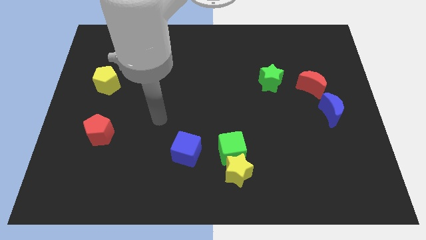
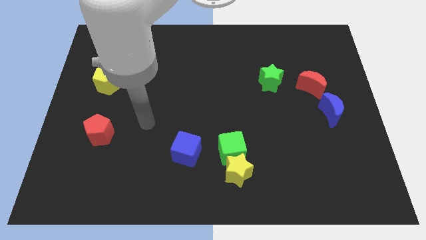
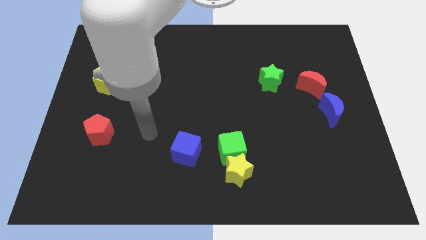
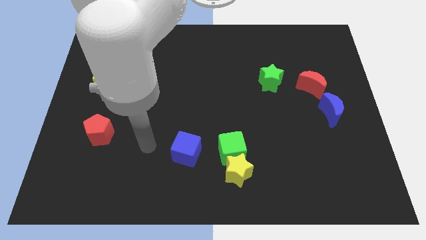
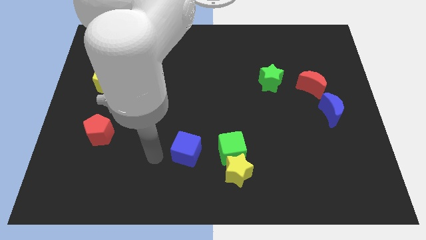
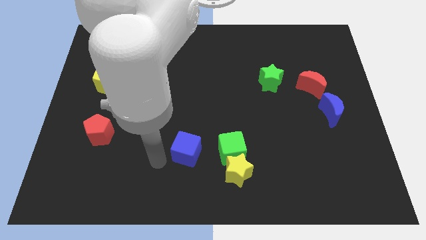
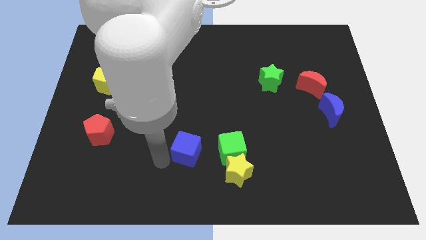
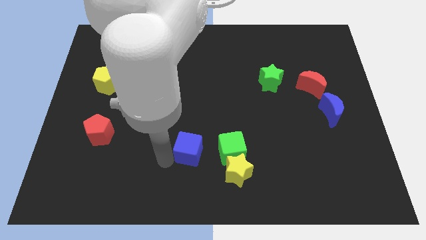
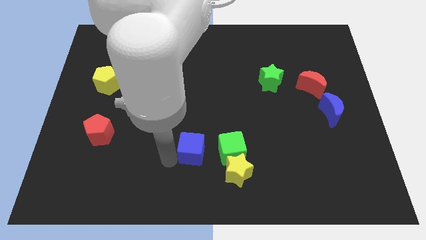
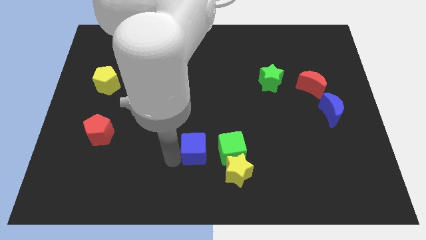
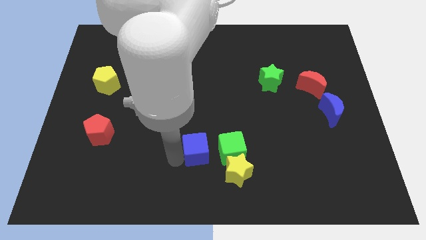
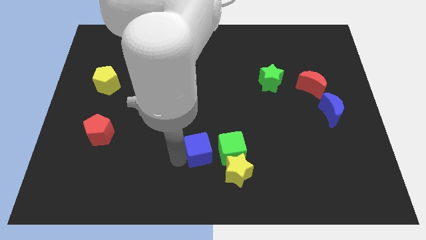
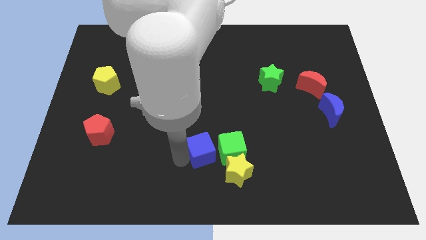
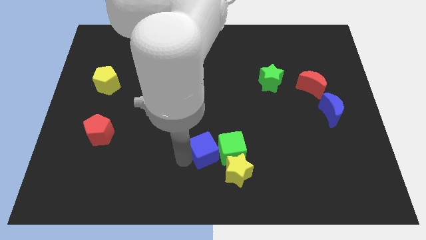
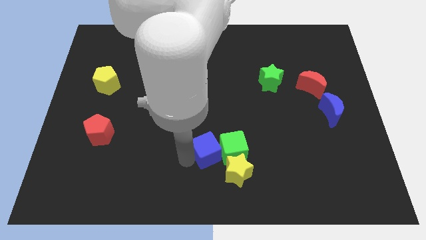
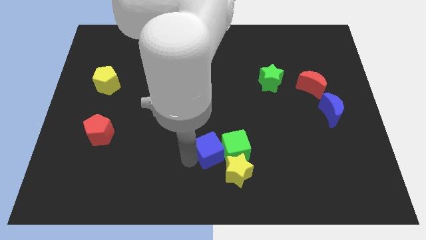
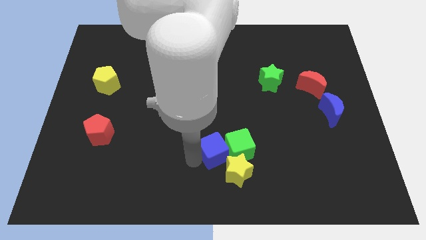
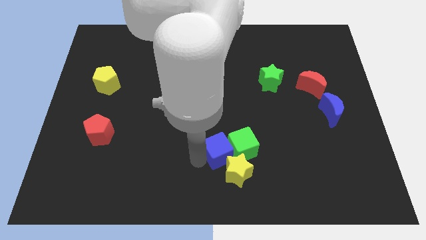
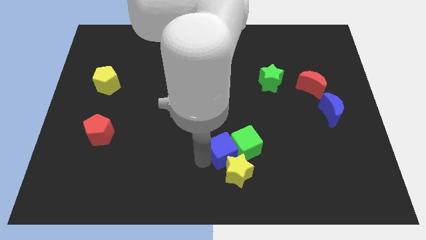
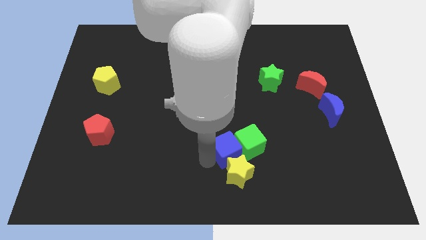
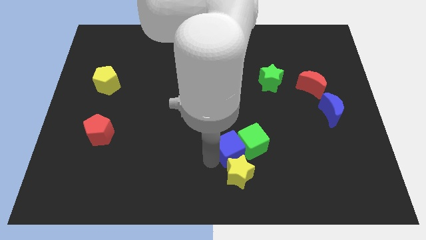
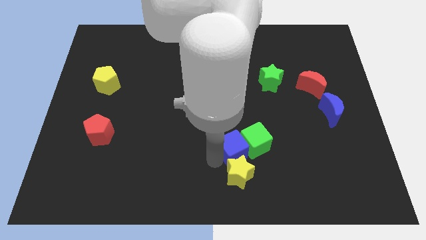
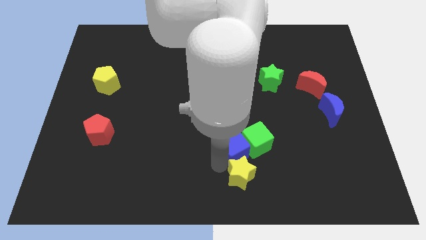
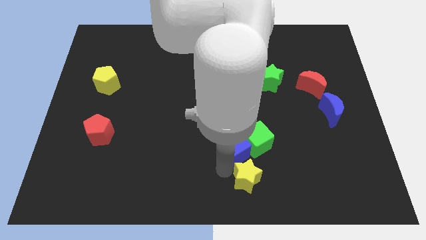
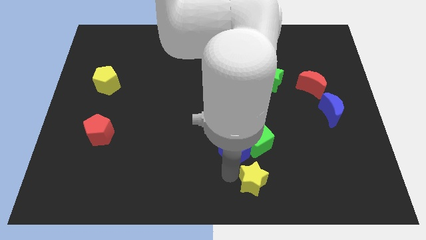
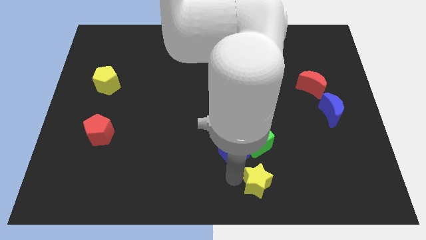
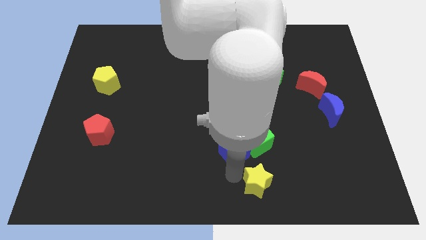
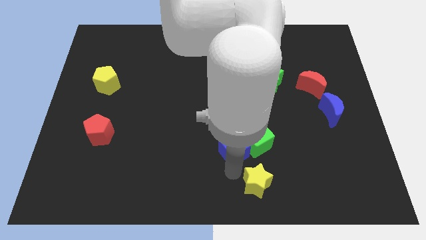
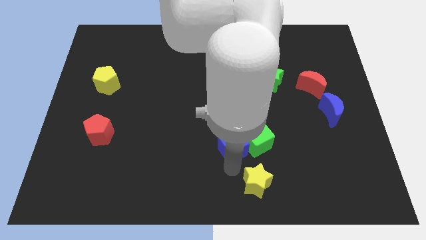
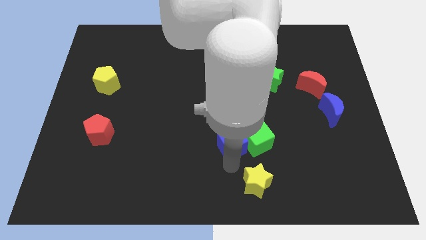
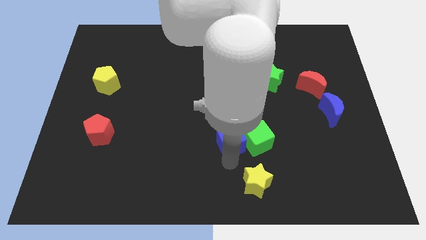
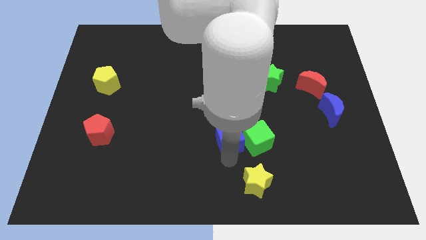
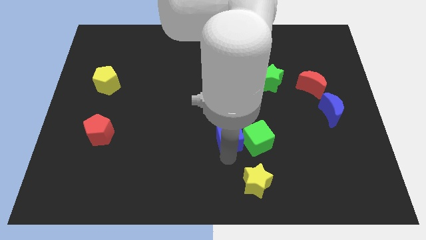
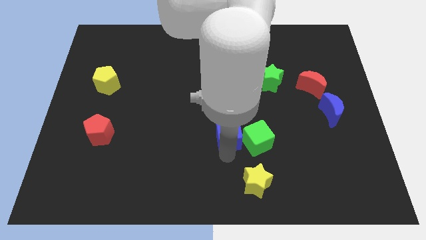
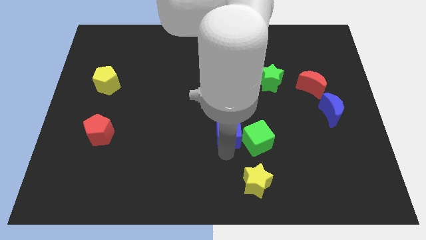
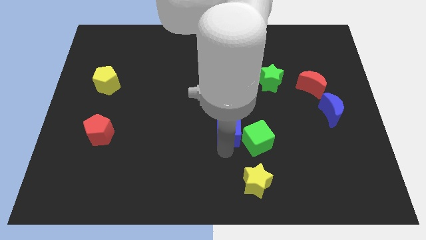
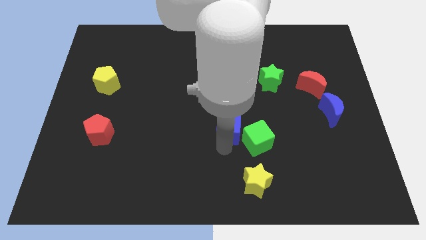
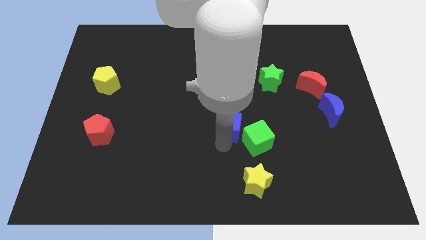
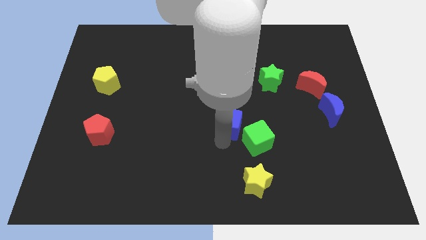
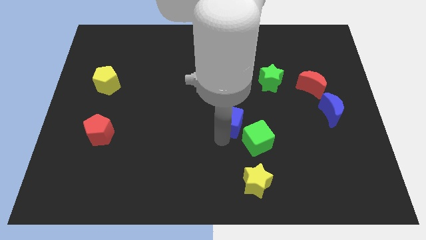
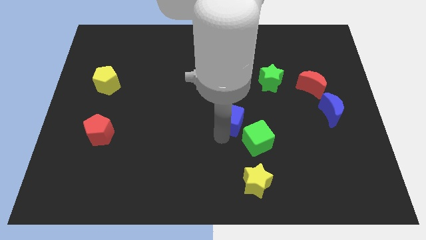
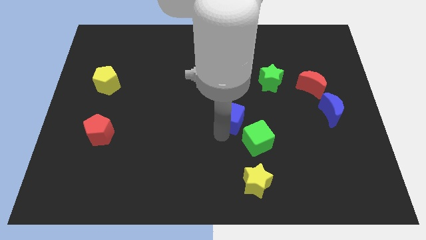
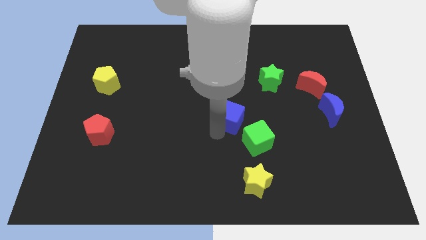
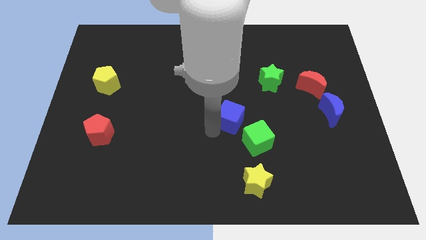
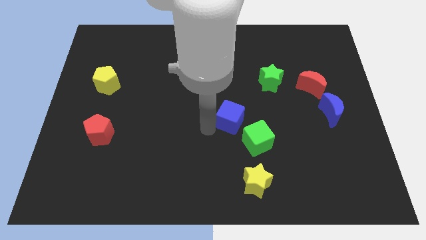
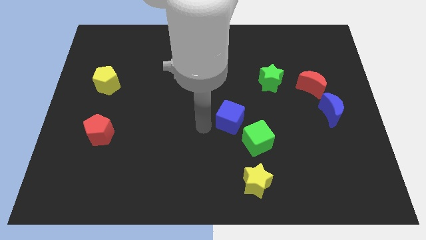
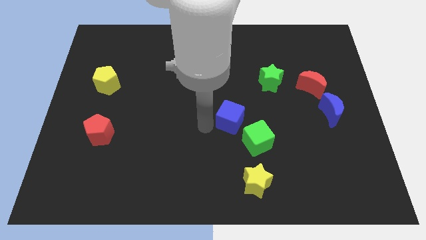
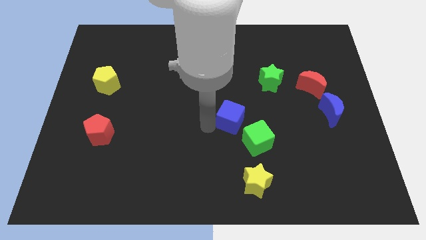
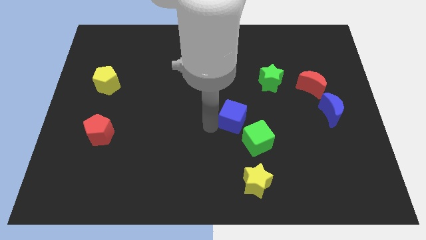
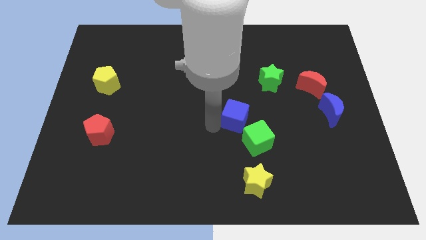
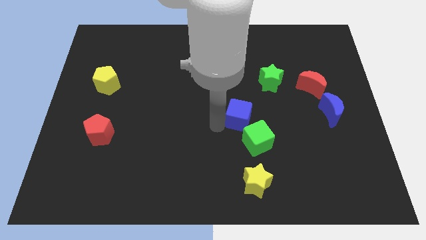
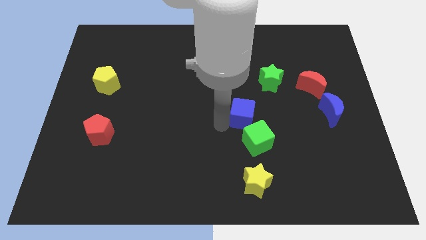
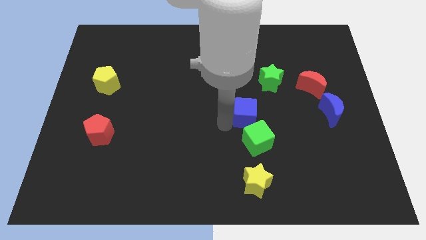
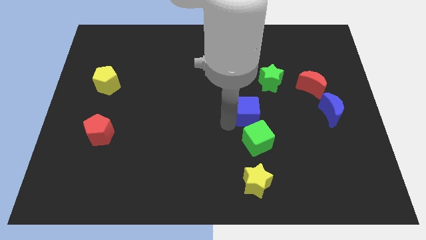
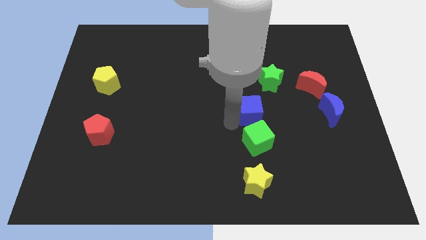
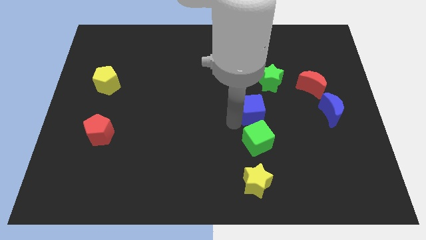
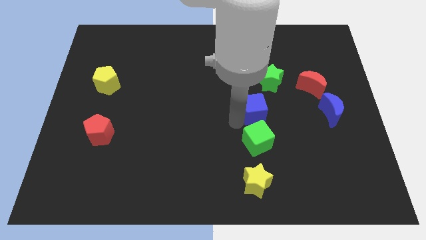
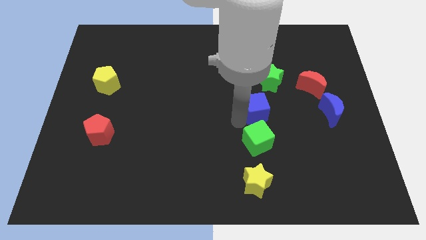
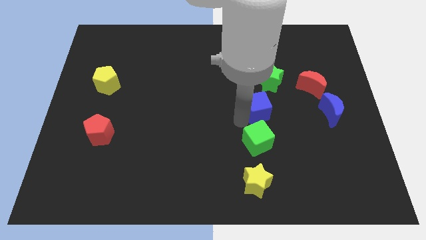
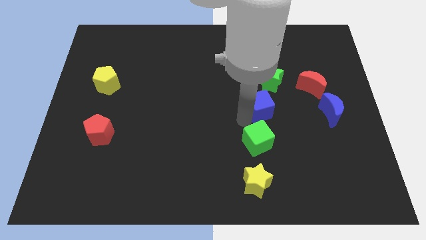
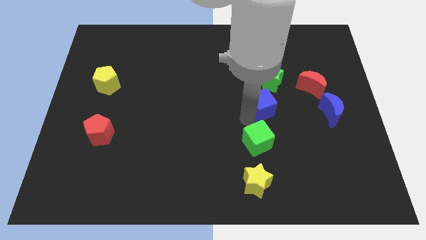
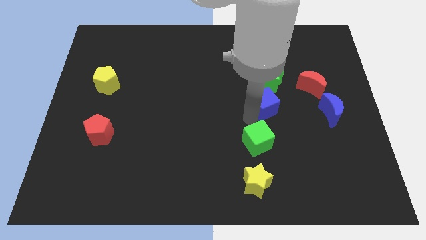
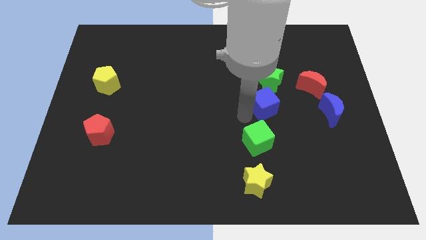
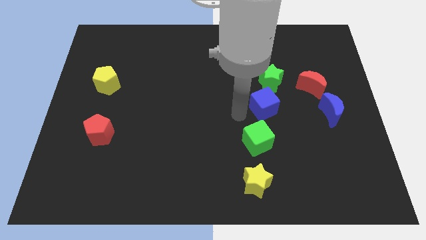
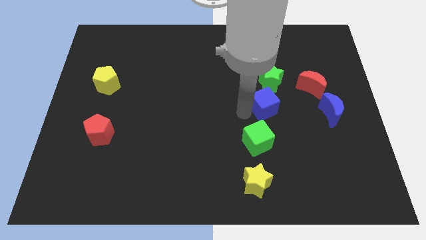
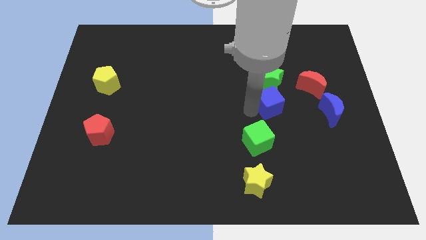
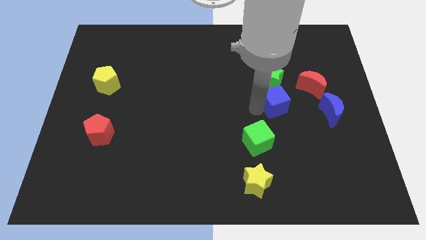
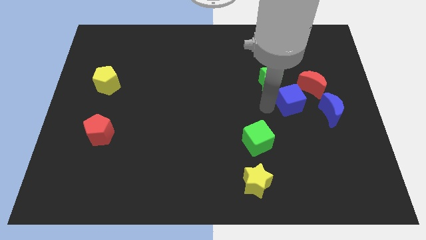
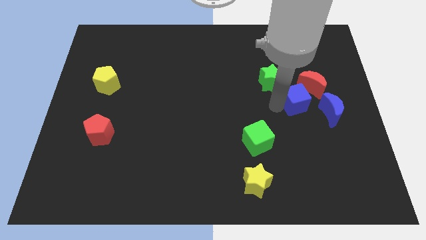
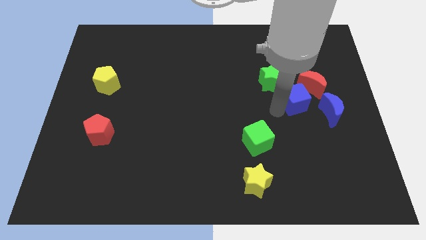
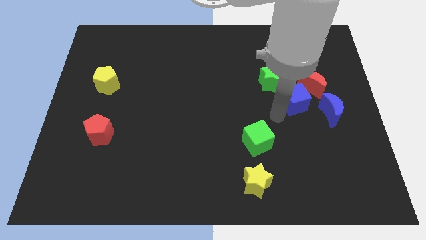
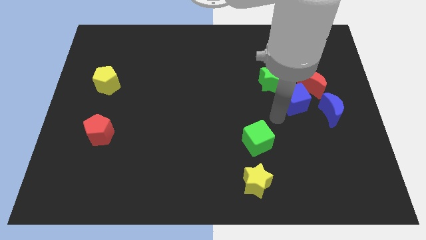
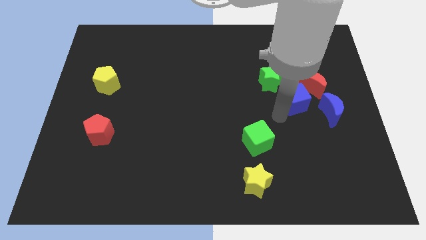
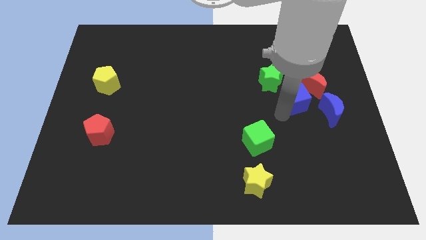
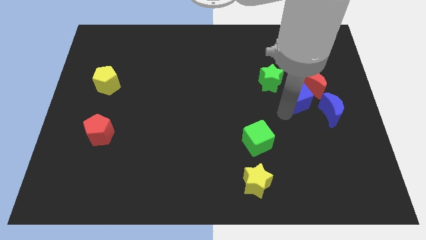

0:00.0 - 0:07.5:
move the blue cube next to the red moon
